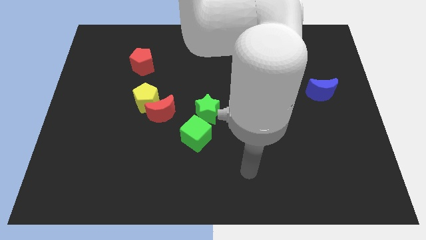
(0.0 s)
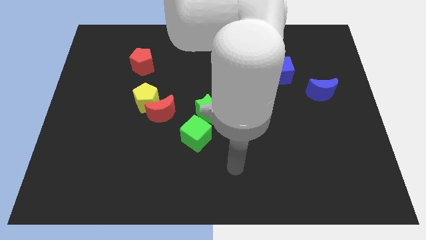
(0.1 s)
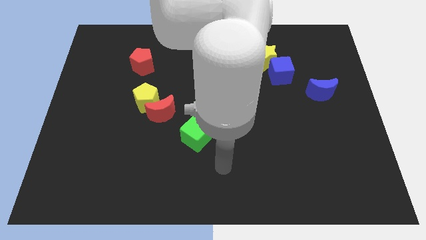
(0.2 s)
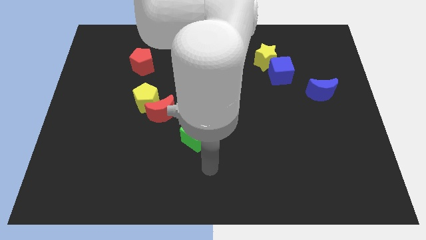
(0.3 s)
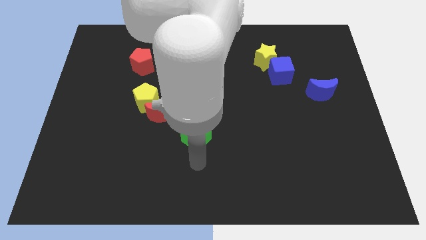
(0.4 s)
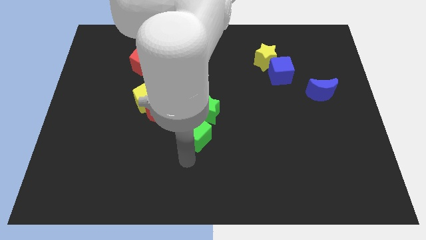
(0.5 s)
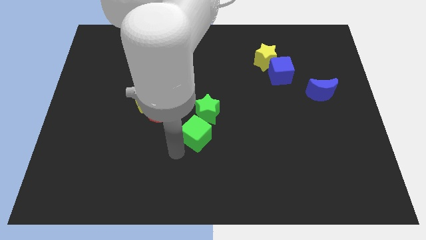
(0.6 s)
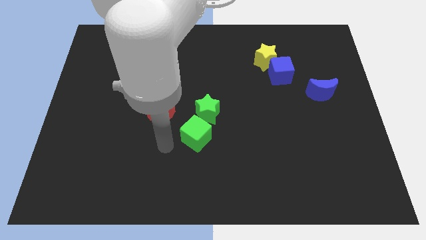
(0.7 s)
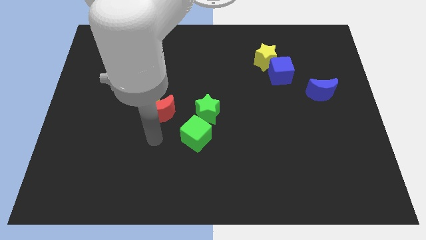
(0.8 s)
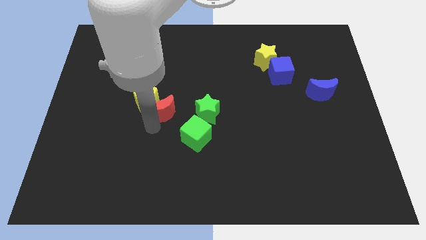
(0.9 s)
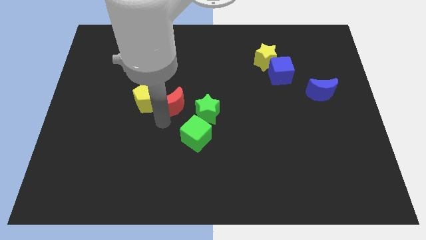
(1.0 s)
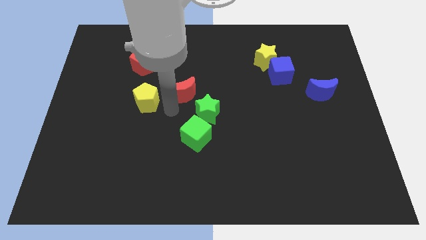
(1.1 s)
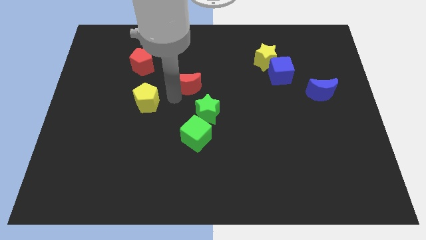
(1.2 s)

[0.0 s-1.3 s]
separate the yellow pentagon from the red moon

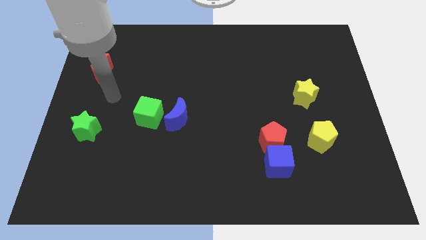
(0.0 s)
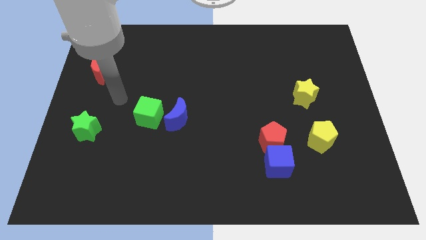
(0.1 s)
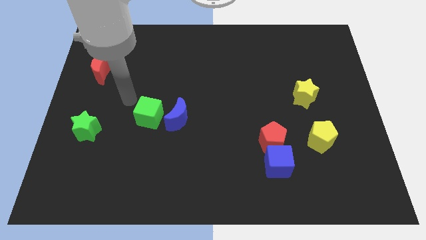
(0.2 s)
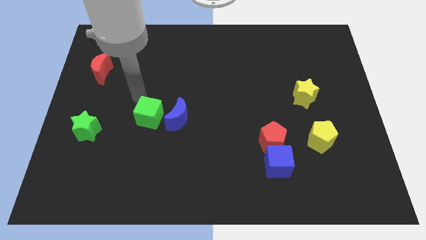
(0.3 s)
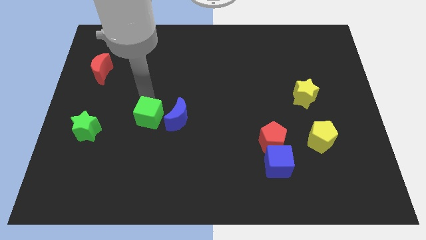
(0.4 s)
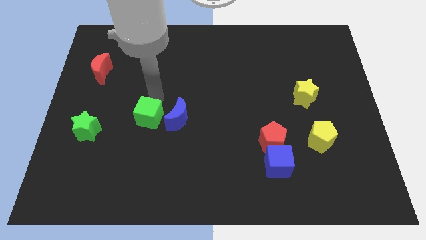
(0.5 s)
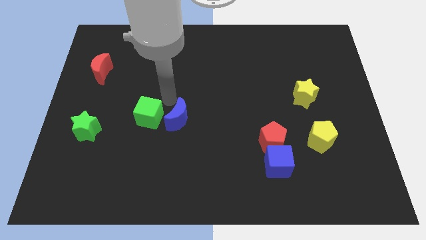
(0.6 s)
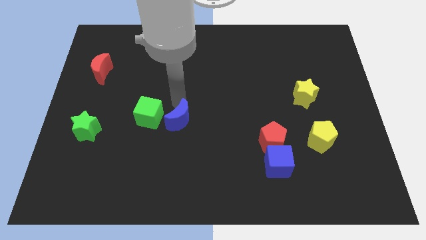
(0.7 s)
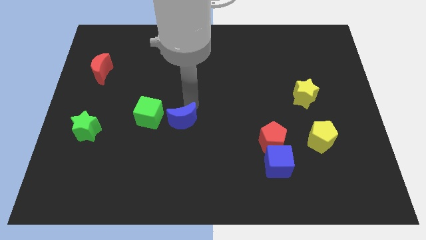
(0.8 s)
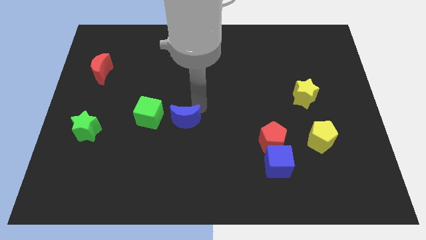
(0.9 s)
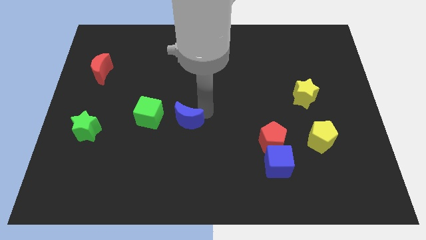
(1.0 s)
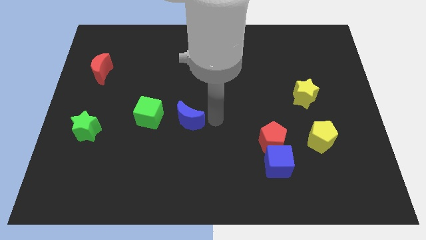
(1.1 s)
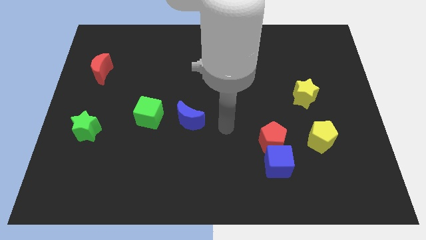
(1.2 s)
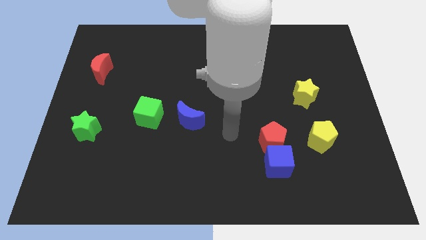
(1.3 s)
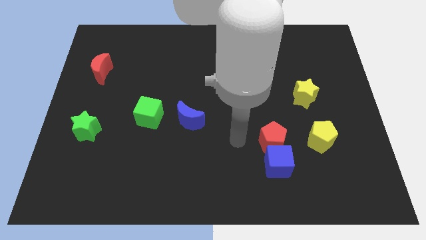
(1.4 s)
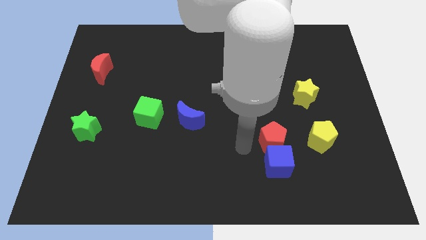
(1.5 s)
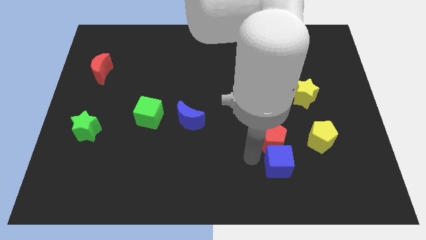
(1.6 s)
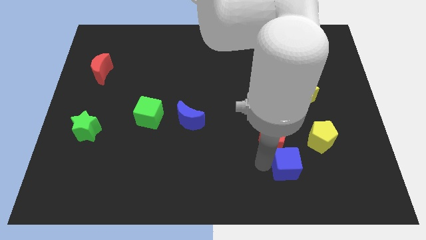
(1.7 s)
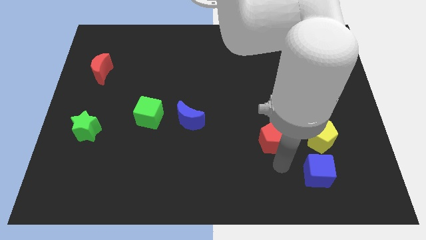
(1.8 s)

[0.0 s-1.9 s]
separate the red pentagon from the blue cube

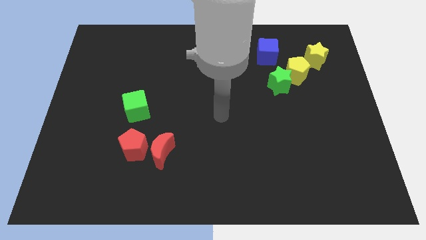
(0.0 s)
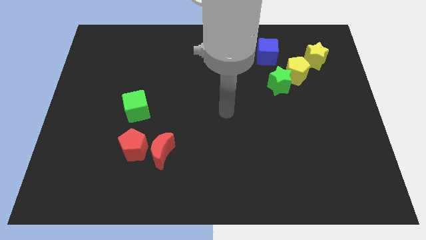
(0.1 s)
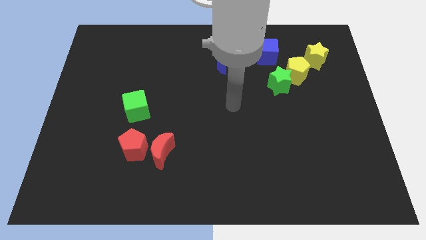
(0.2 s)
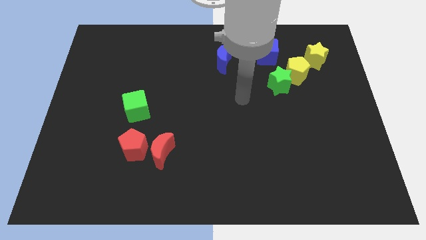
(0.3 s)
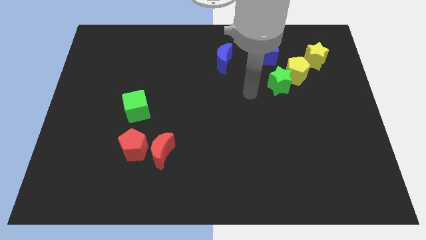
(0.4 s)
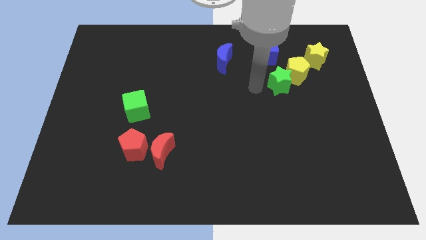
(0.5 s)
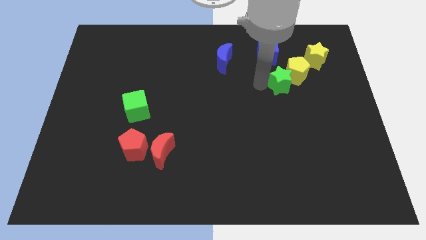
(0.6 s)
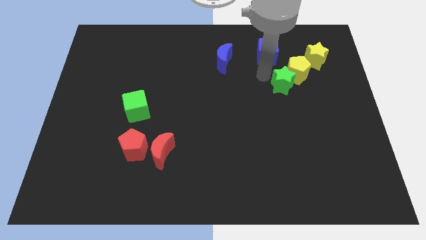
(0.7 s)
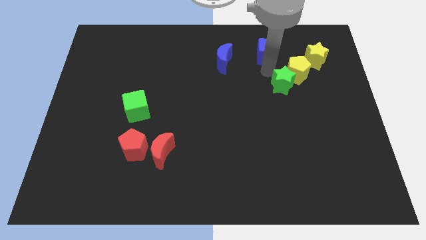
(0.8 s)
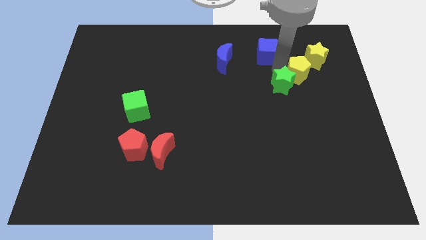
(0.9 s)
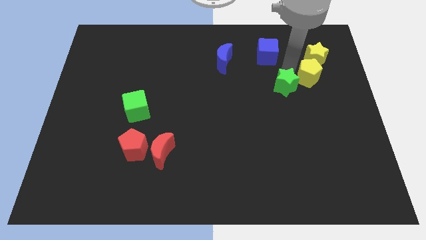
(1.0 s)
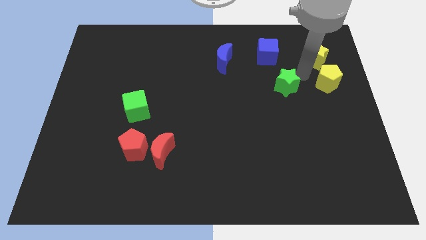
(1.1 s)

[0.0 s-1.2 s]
pull the green star apart from the yellow pentagon

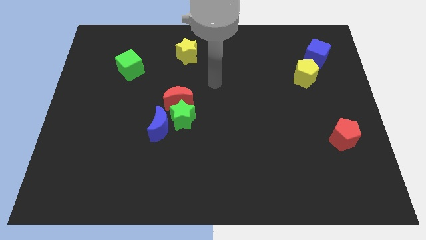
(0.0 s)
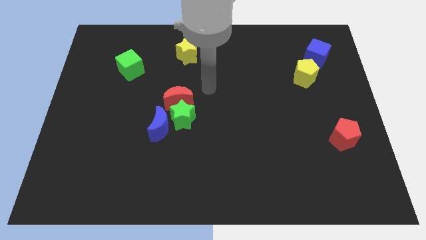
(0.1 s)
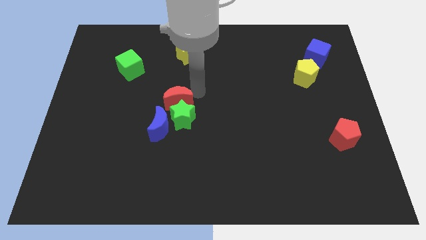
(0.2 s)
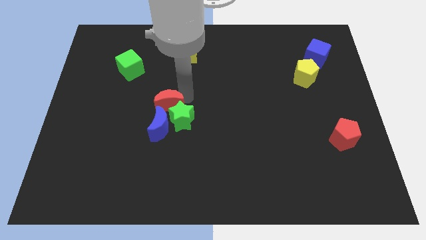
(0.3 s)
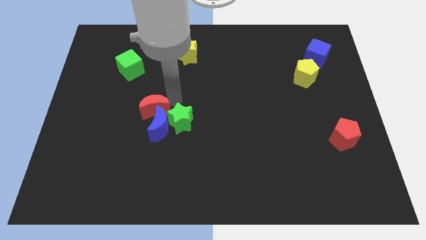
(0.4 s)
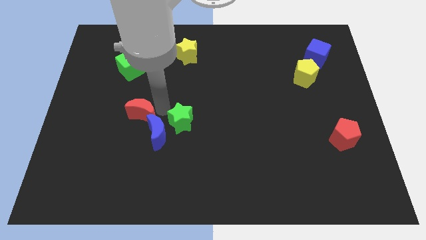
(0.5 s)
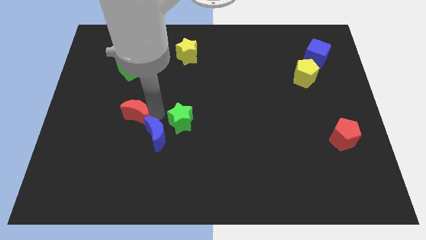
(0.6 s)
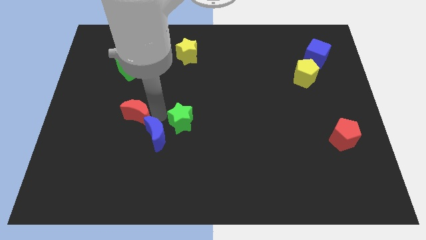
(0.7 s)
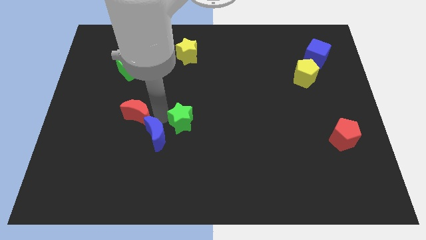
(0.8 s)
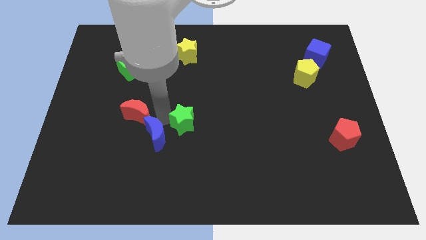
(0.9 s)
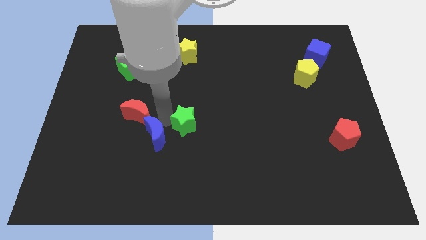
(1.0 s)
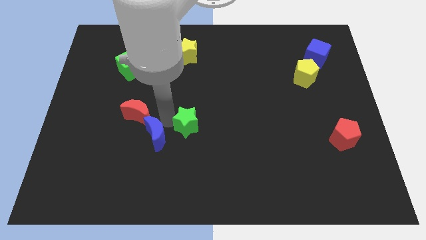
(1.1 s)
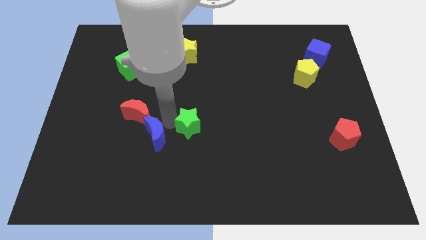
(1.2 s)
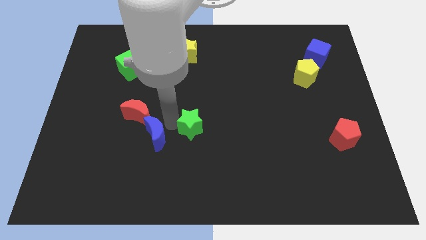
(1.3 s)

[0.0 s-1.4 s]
pull the green star apart from the blue moon and red moon

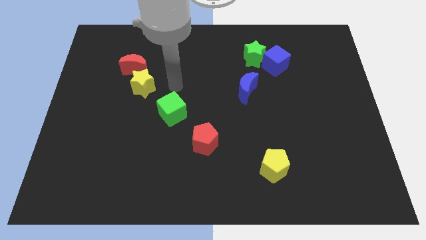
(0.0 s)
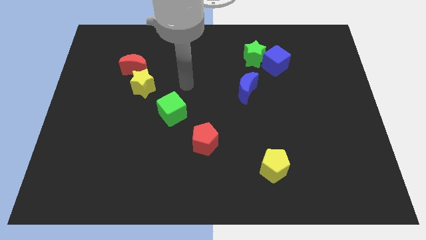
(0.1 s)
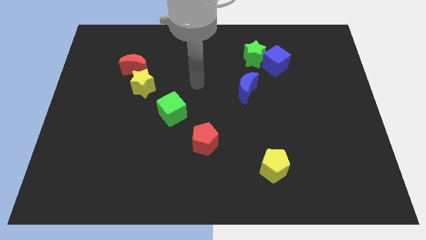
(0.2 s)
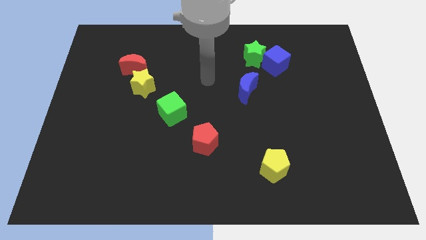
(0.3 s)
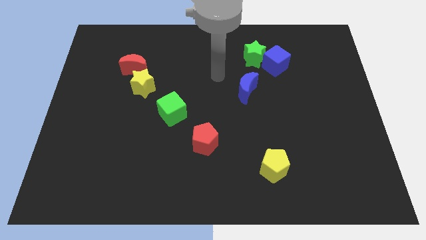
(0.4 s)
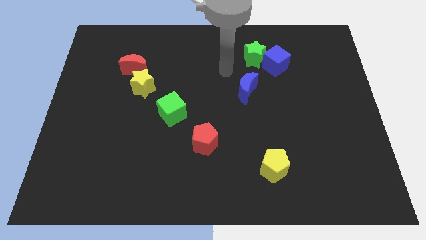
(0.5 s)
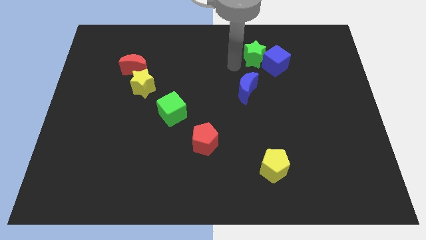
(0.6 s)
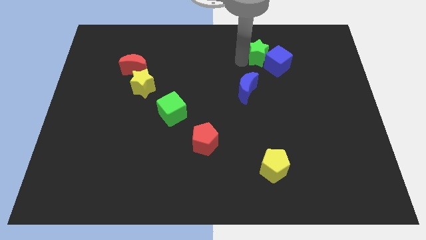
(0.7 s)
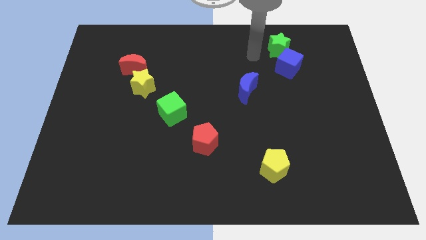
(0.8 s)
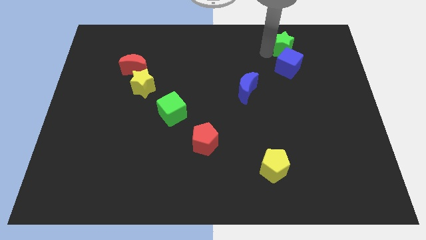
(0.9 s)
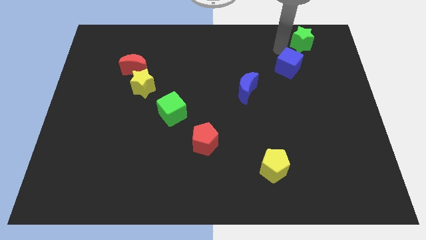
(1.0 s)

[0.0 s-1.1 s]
pull the blue cube apart from the green star

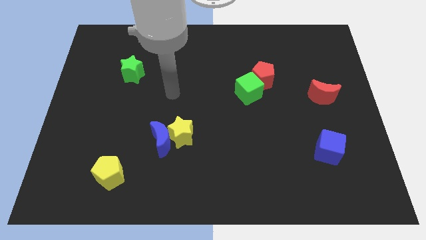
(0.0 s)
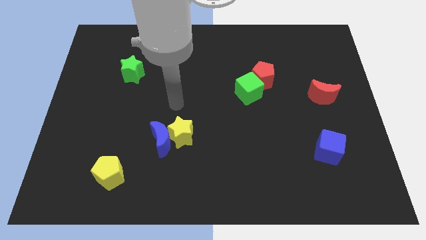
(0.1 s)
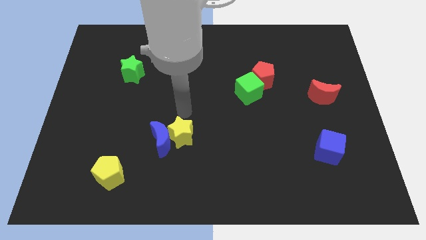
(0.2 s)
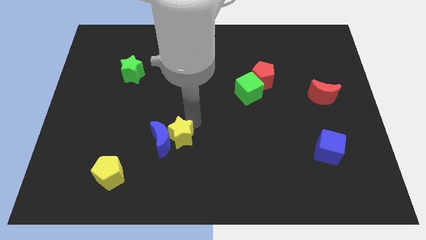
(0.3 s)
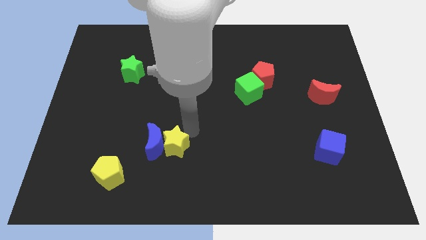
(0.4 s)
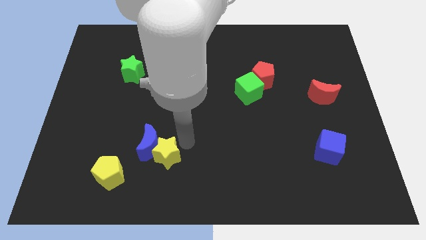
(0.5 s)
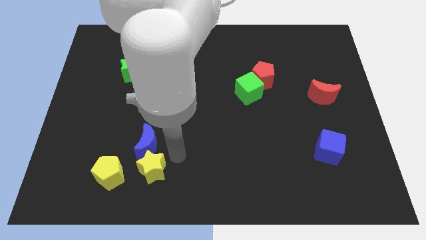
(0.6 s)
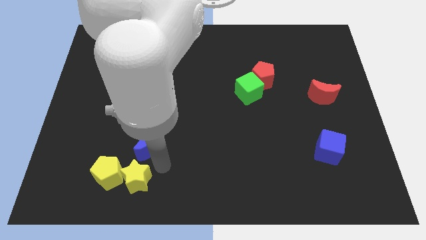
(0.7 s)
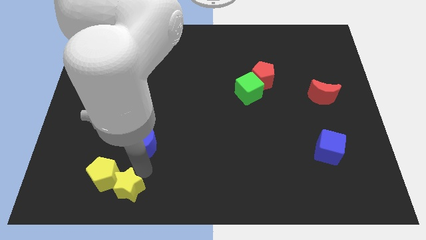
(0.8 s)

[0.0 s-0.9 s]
move the blue moon away from the yellow star

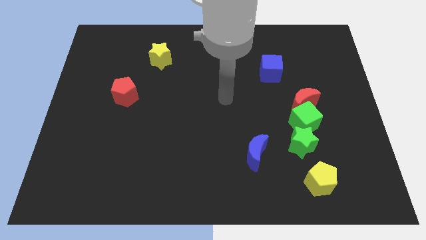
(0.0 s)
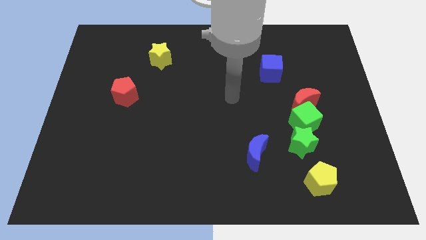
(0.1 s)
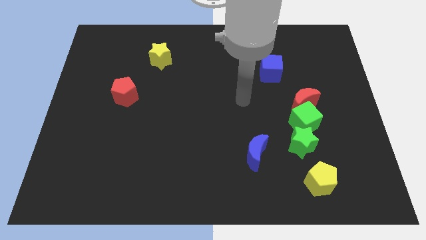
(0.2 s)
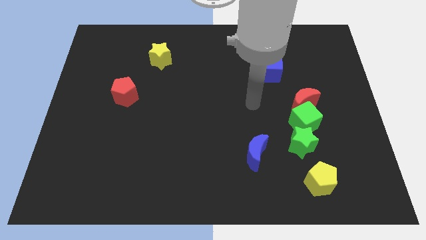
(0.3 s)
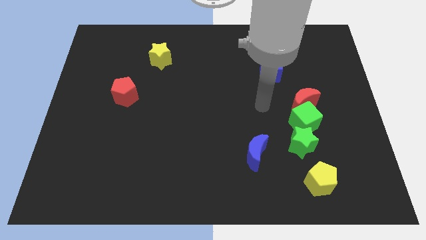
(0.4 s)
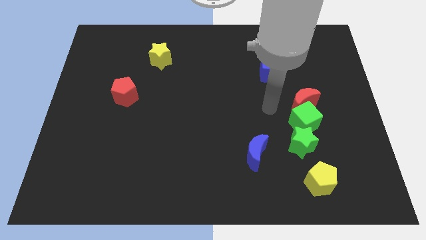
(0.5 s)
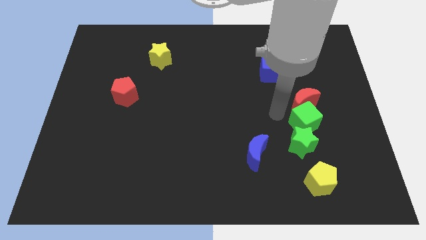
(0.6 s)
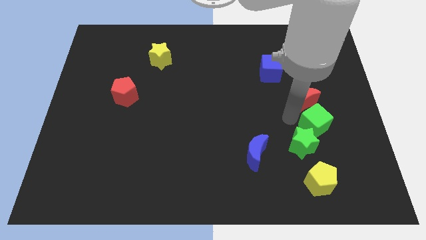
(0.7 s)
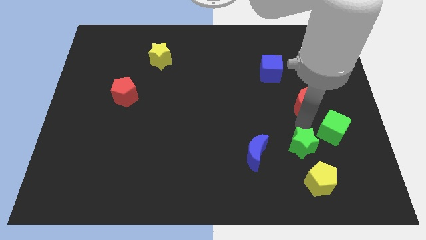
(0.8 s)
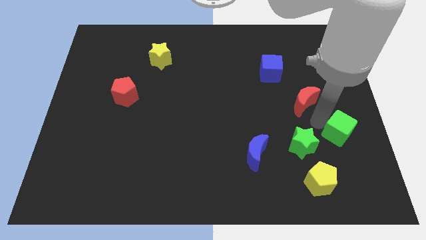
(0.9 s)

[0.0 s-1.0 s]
pull the red moon apart from the green cube

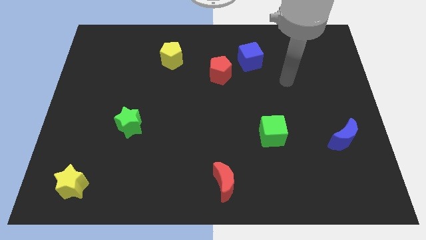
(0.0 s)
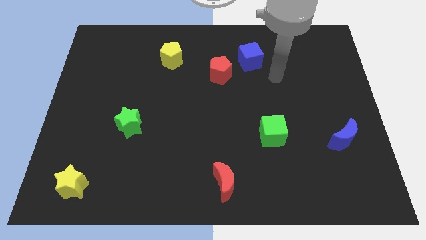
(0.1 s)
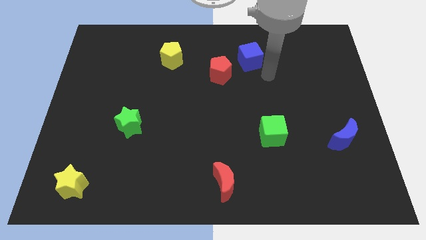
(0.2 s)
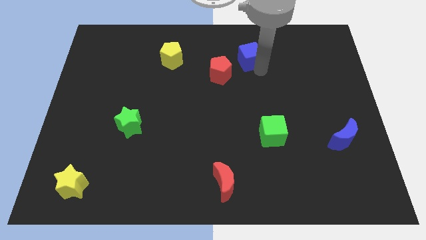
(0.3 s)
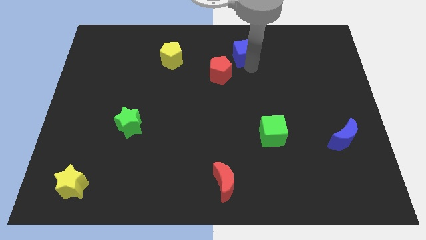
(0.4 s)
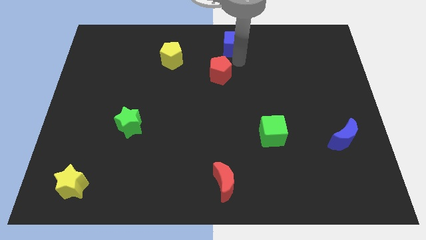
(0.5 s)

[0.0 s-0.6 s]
move the red pentagon away from the blue cube

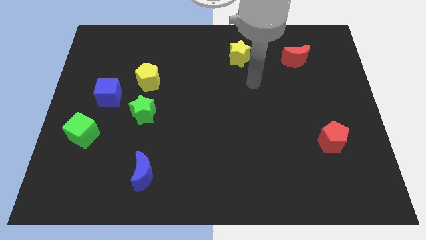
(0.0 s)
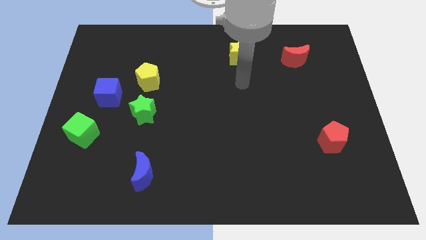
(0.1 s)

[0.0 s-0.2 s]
pull the blue cube apart from the yellow pentagon
